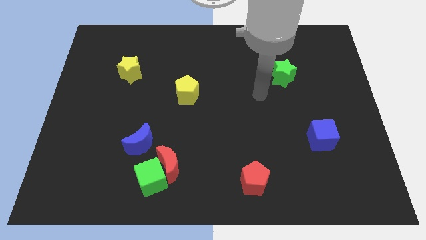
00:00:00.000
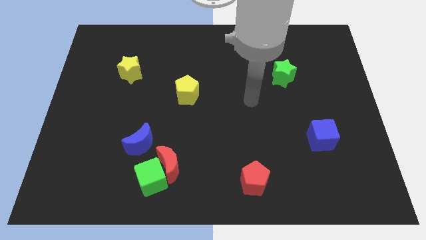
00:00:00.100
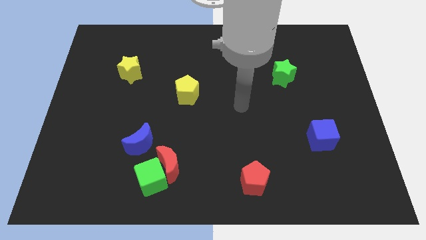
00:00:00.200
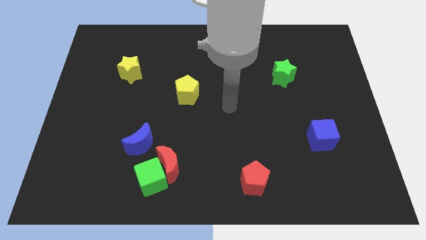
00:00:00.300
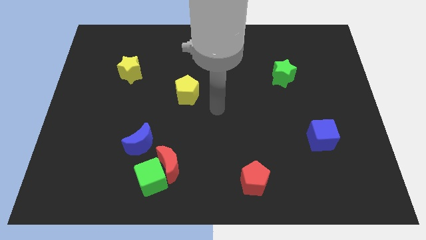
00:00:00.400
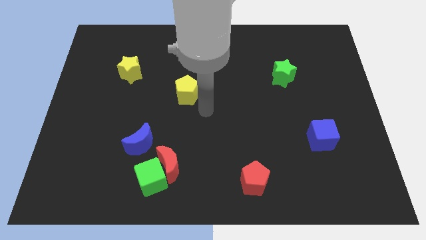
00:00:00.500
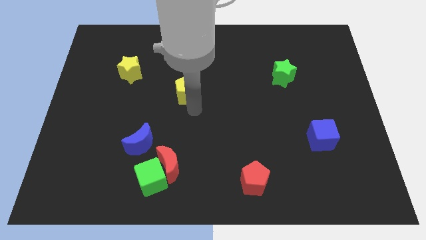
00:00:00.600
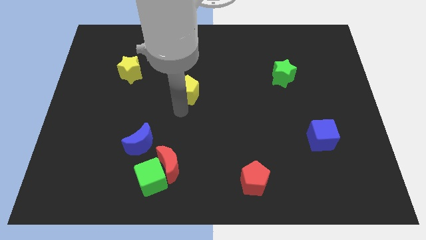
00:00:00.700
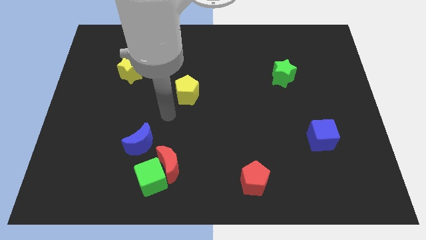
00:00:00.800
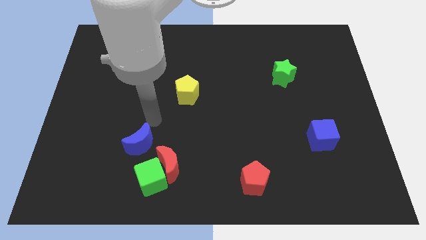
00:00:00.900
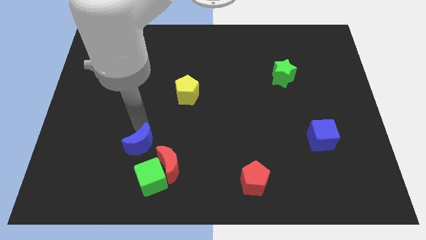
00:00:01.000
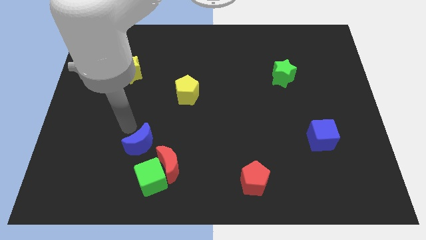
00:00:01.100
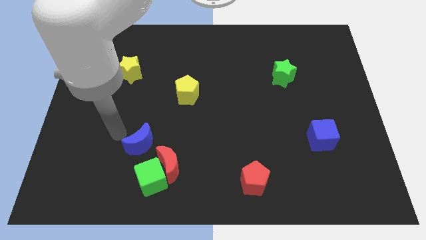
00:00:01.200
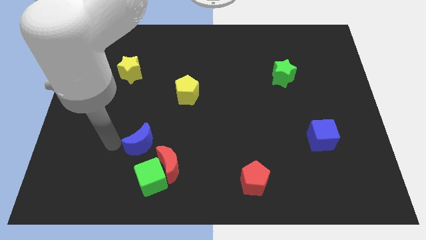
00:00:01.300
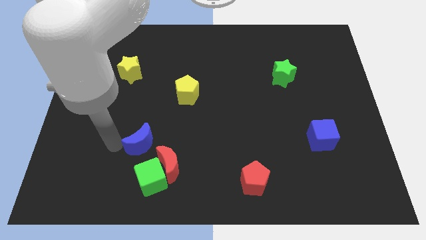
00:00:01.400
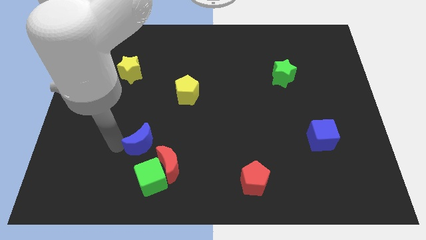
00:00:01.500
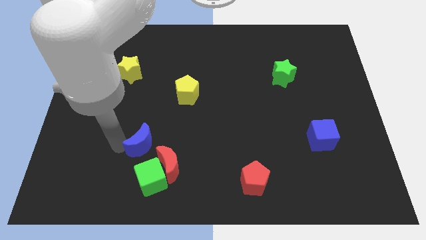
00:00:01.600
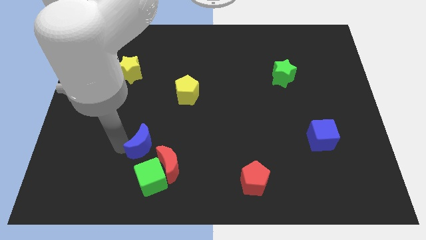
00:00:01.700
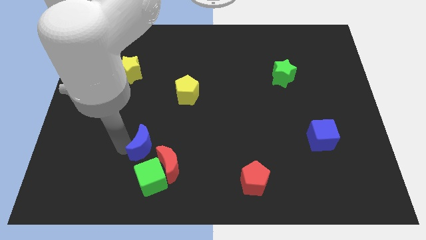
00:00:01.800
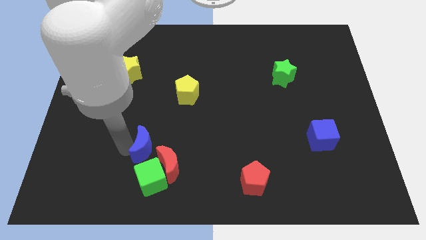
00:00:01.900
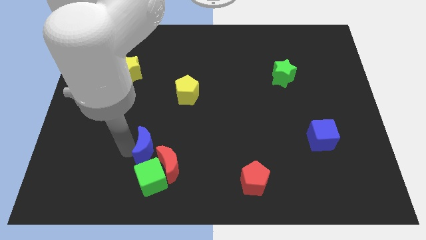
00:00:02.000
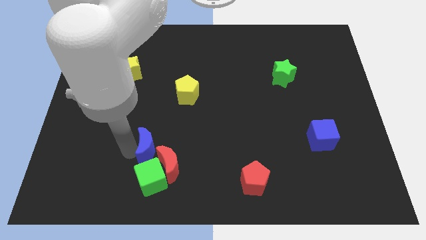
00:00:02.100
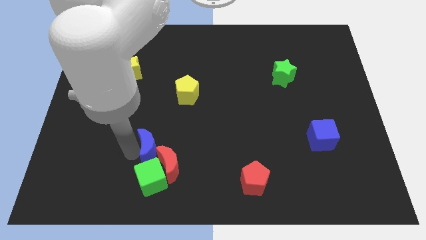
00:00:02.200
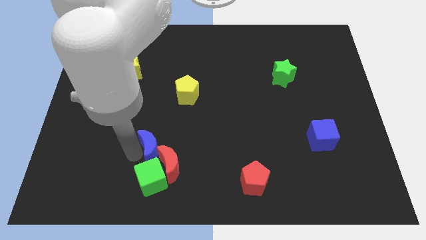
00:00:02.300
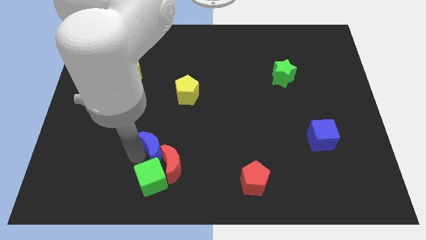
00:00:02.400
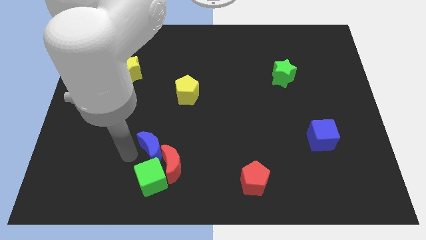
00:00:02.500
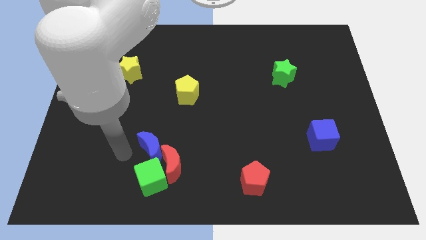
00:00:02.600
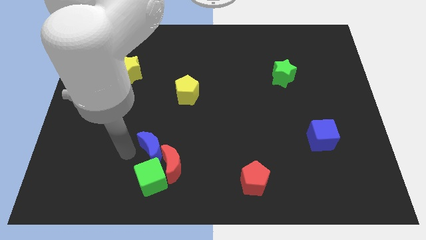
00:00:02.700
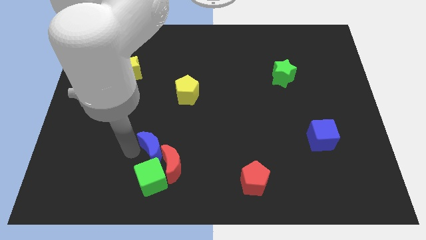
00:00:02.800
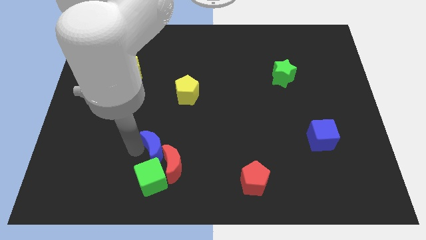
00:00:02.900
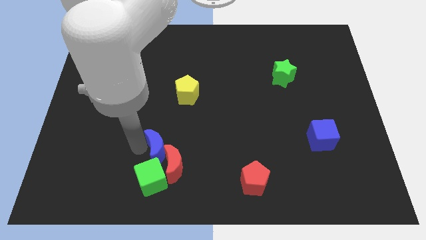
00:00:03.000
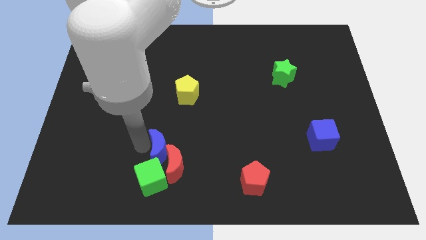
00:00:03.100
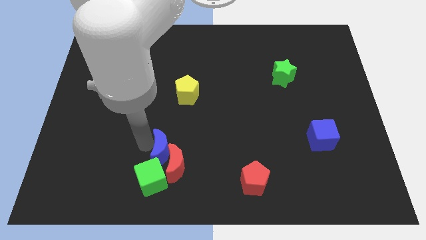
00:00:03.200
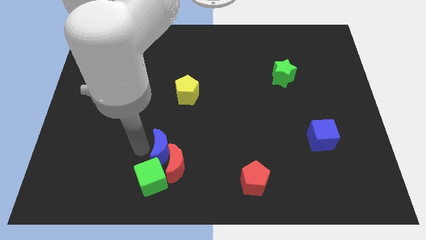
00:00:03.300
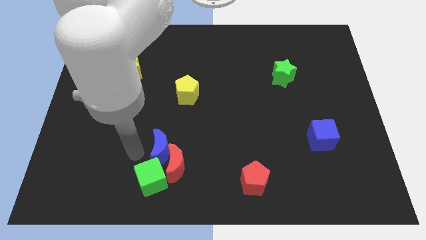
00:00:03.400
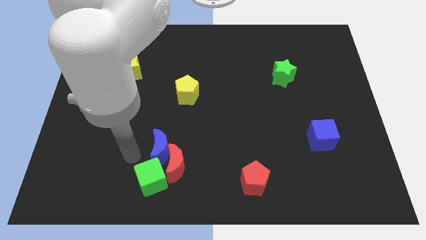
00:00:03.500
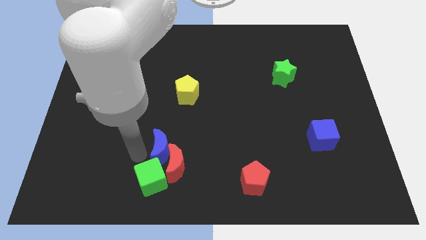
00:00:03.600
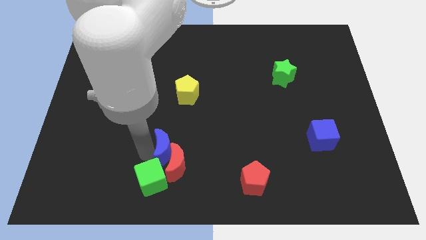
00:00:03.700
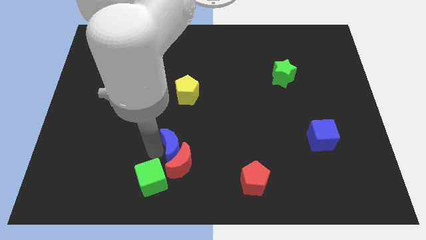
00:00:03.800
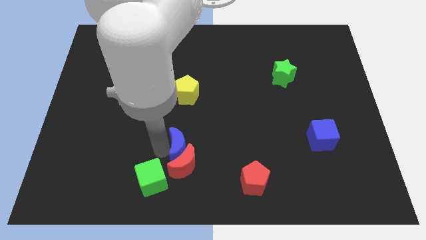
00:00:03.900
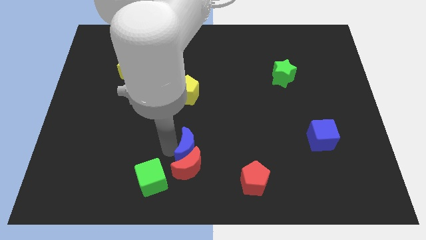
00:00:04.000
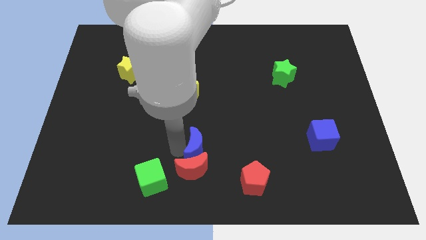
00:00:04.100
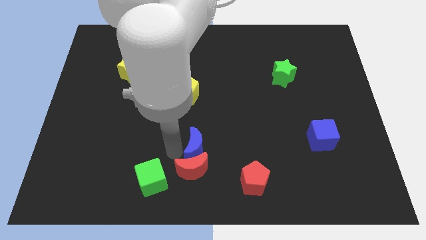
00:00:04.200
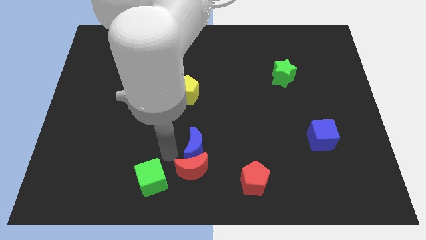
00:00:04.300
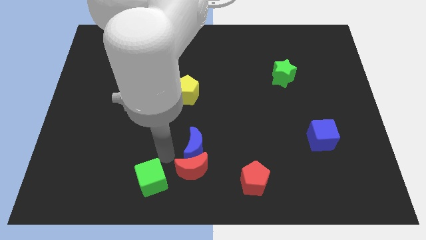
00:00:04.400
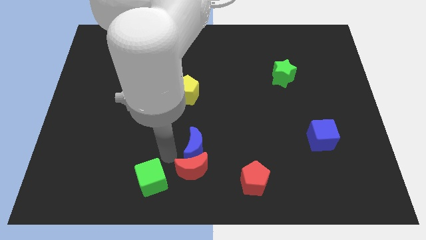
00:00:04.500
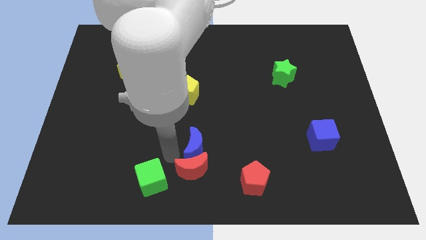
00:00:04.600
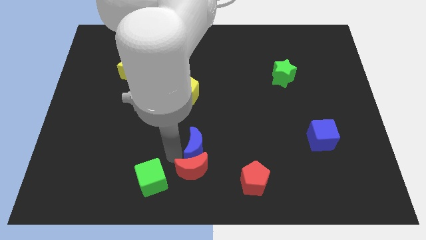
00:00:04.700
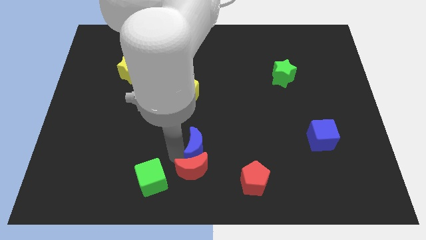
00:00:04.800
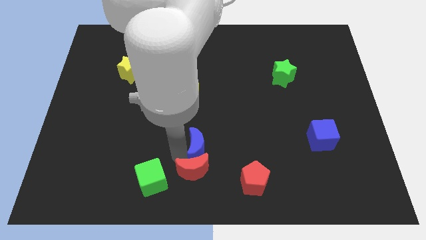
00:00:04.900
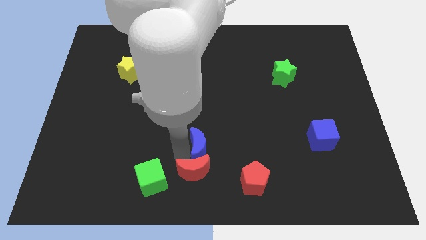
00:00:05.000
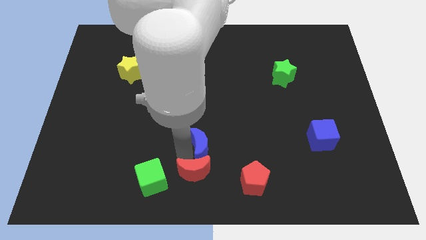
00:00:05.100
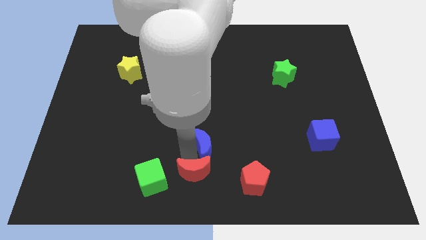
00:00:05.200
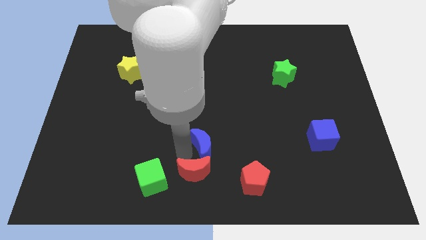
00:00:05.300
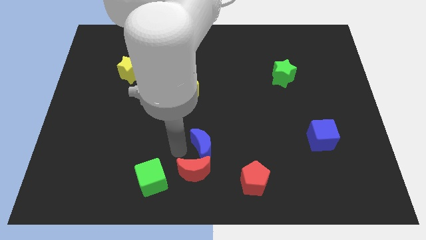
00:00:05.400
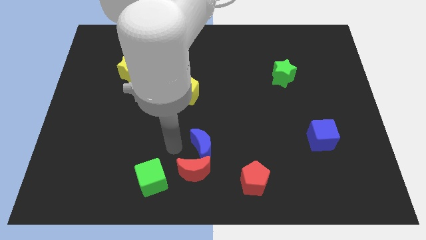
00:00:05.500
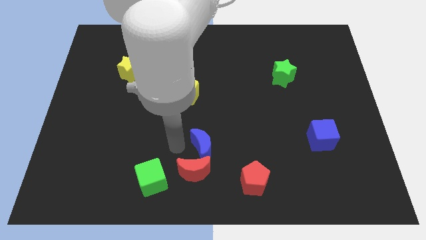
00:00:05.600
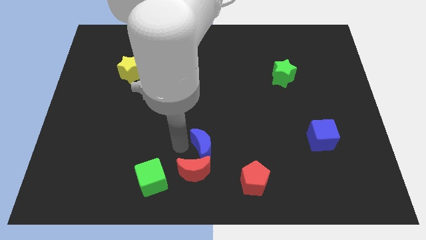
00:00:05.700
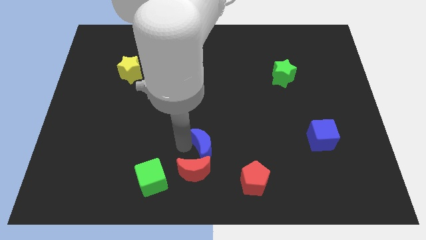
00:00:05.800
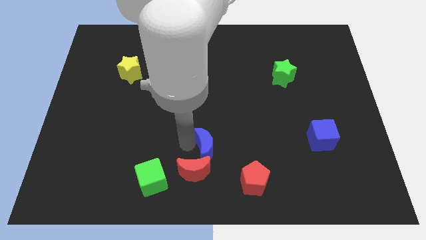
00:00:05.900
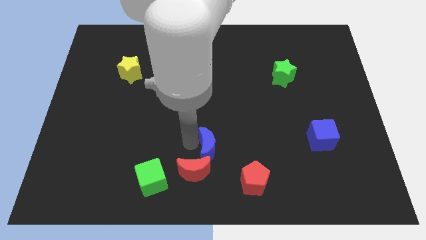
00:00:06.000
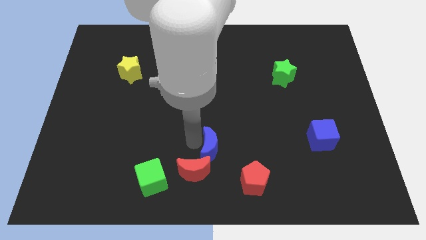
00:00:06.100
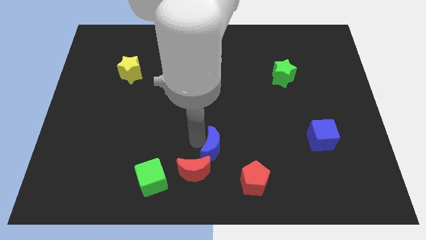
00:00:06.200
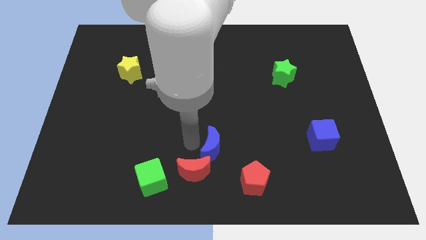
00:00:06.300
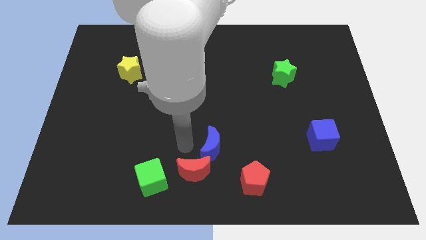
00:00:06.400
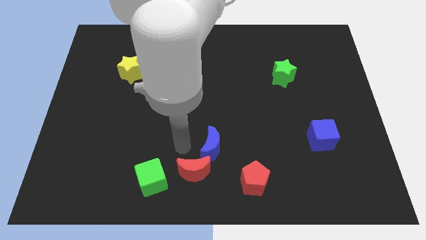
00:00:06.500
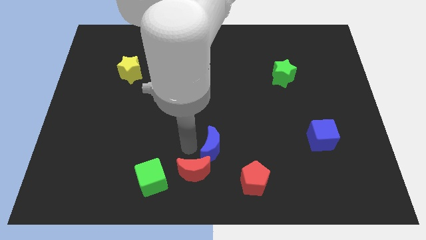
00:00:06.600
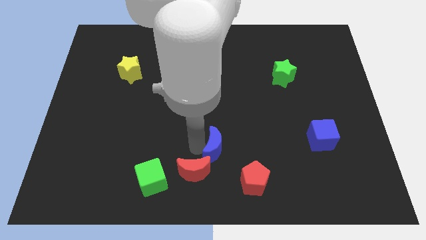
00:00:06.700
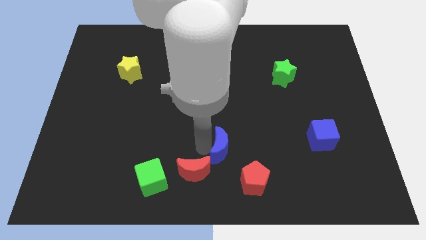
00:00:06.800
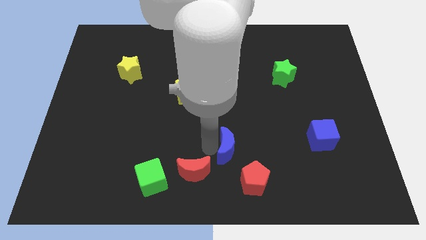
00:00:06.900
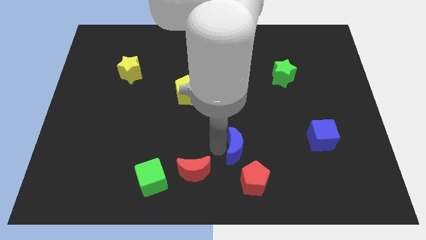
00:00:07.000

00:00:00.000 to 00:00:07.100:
move the blue moon right

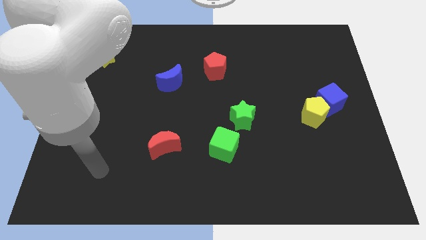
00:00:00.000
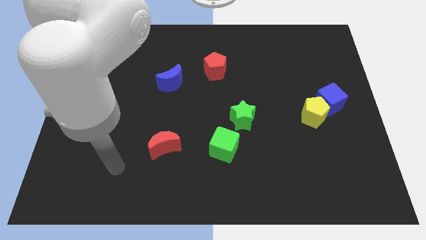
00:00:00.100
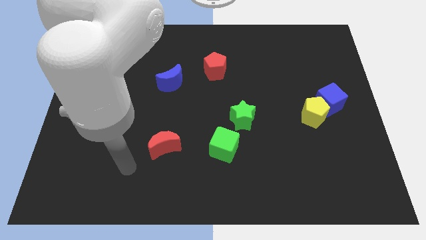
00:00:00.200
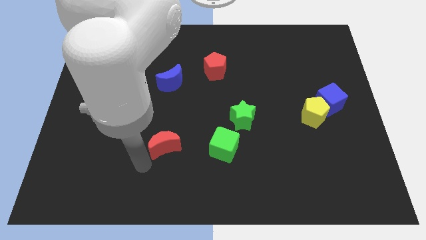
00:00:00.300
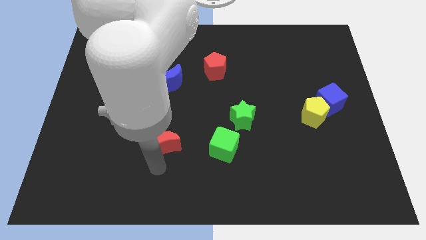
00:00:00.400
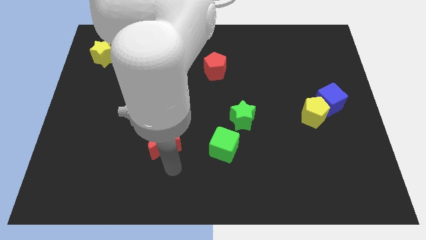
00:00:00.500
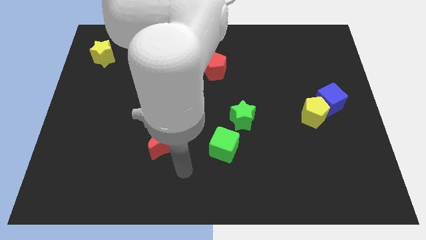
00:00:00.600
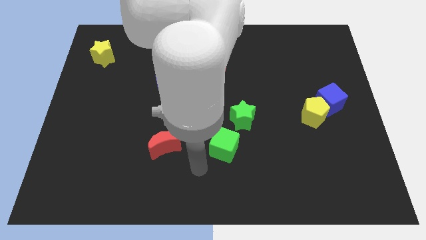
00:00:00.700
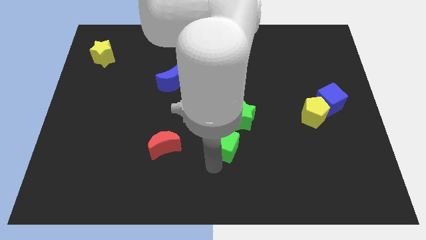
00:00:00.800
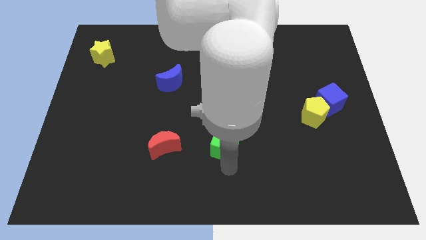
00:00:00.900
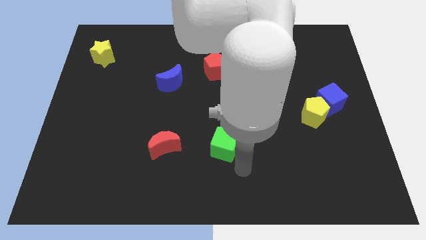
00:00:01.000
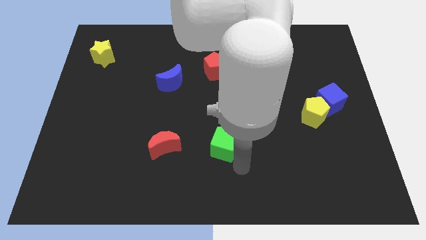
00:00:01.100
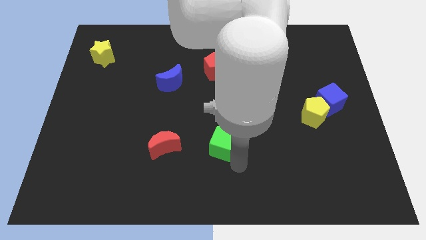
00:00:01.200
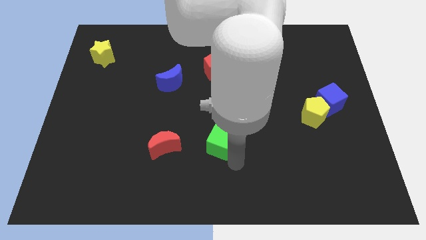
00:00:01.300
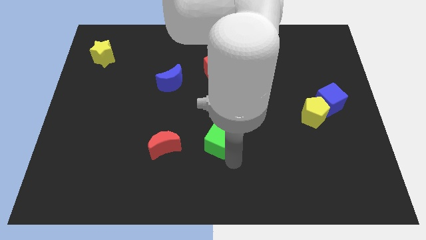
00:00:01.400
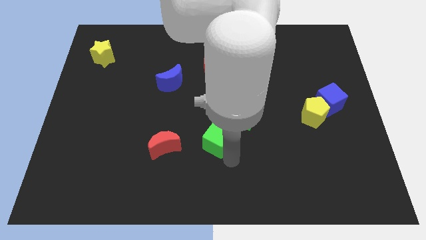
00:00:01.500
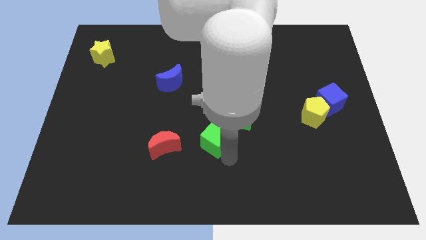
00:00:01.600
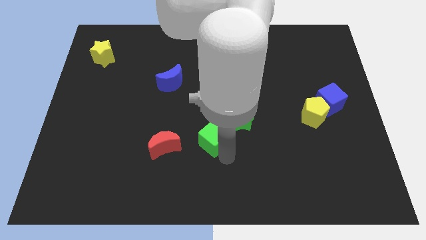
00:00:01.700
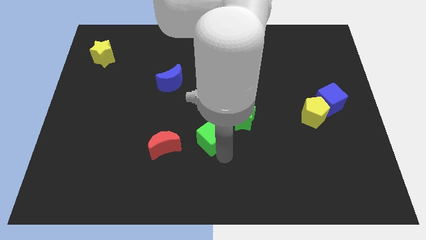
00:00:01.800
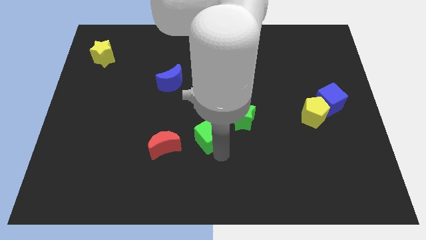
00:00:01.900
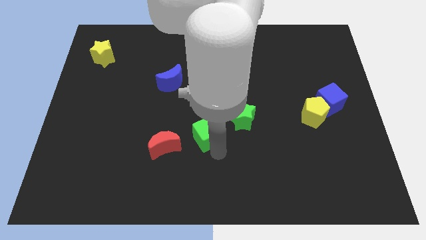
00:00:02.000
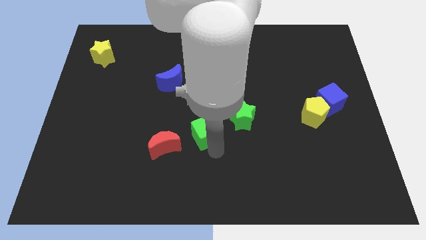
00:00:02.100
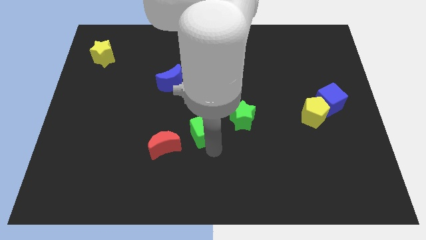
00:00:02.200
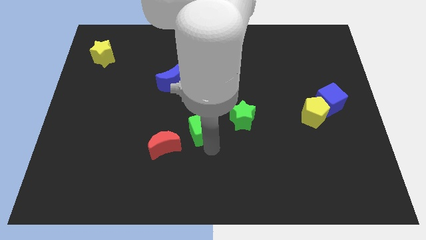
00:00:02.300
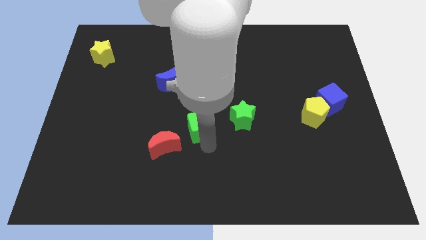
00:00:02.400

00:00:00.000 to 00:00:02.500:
move the green cube upwards and then to the left a little
